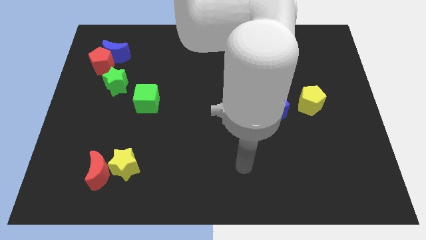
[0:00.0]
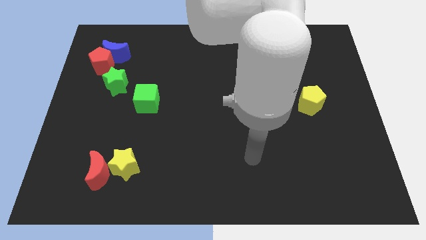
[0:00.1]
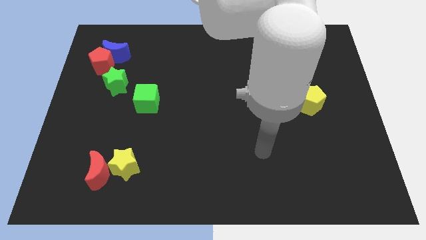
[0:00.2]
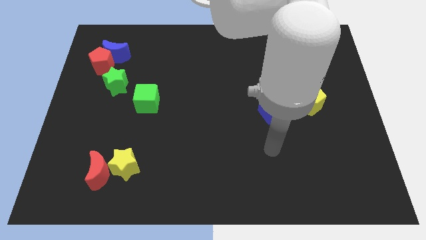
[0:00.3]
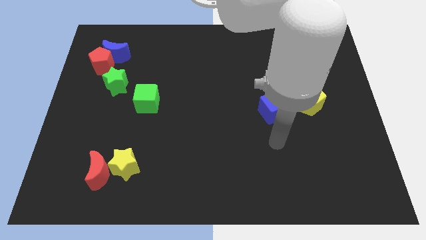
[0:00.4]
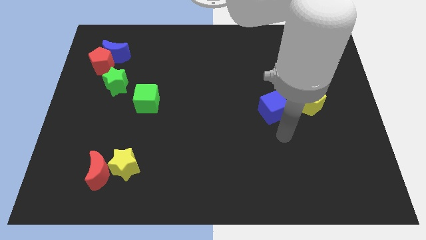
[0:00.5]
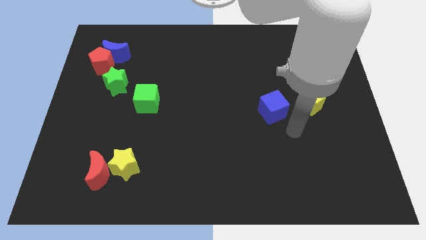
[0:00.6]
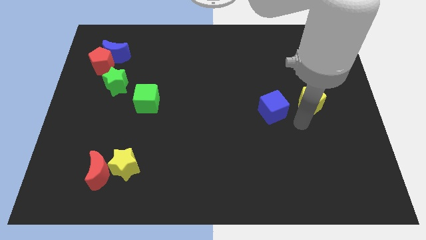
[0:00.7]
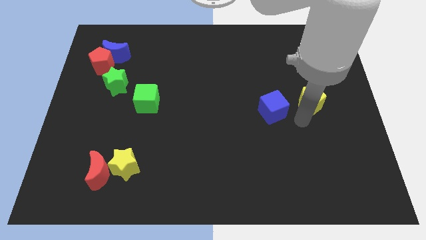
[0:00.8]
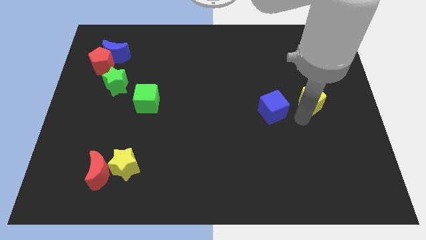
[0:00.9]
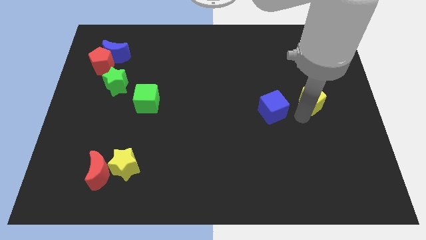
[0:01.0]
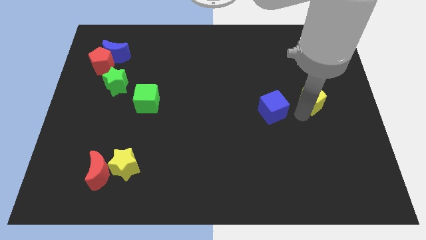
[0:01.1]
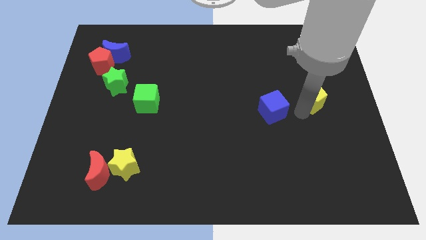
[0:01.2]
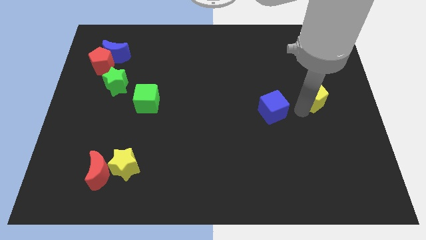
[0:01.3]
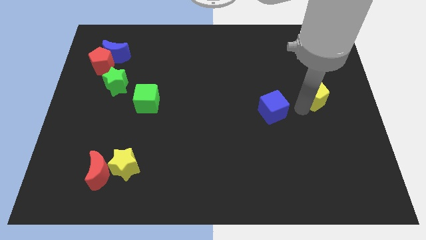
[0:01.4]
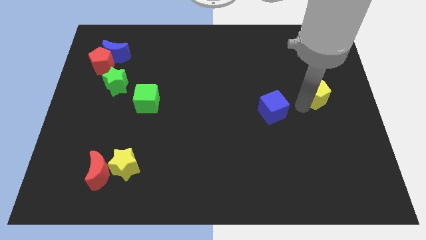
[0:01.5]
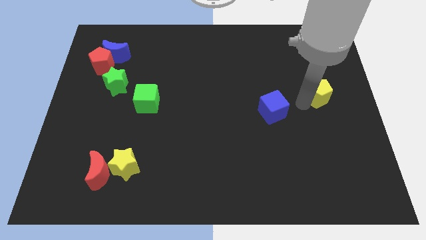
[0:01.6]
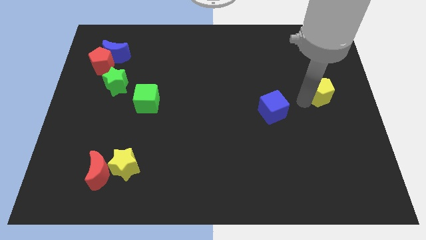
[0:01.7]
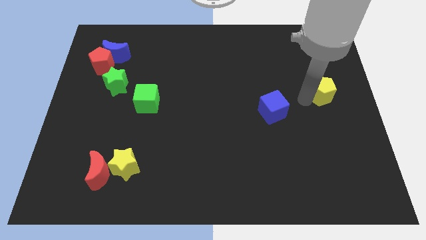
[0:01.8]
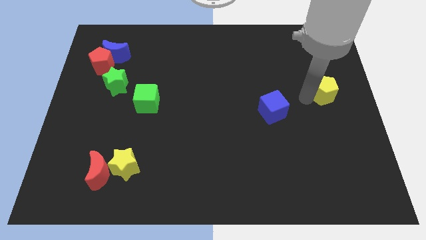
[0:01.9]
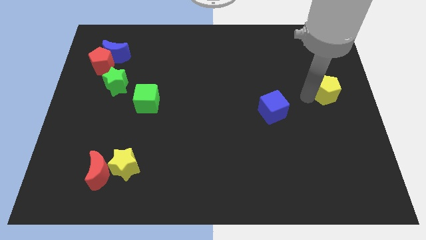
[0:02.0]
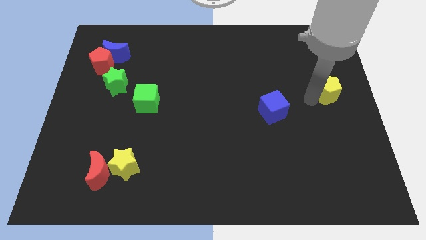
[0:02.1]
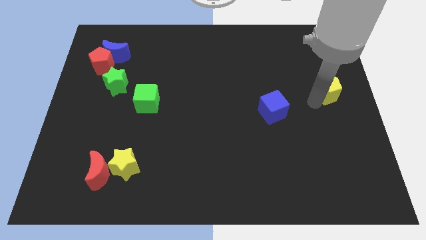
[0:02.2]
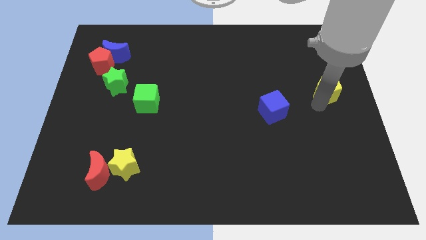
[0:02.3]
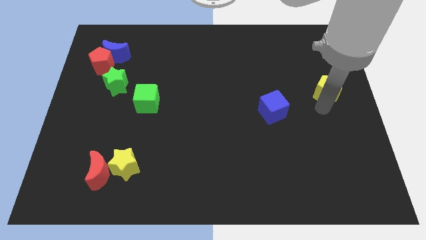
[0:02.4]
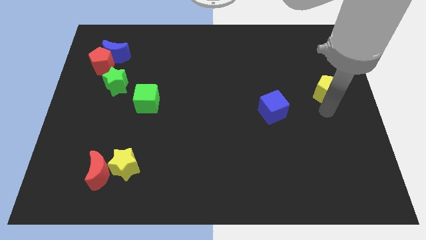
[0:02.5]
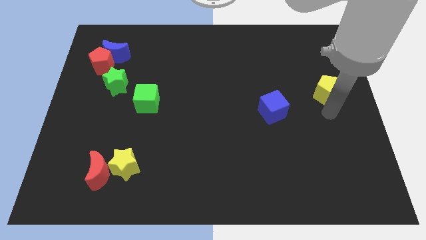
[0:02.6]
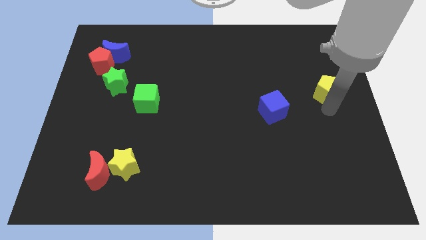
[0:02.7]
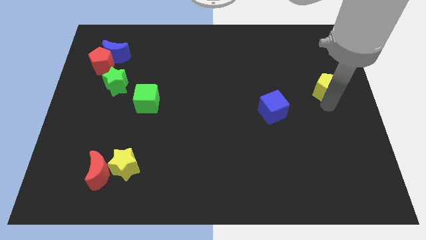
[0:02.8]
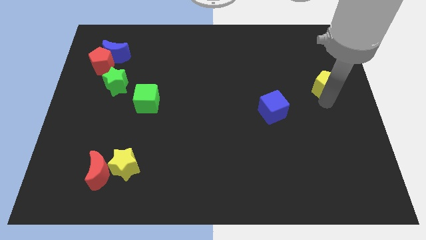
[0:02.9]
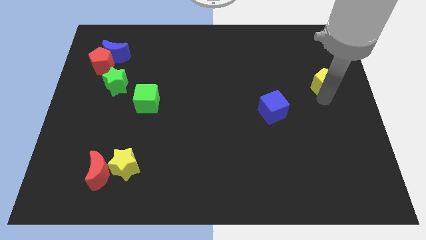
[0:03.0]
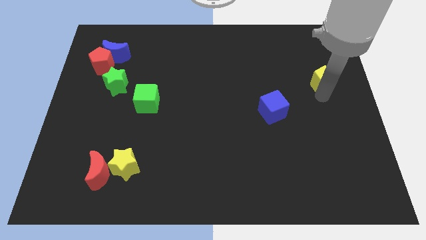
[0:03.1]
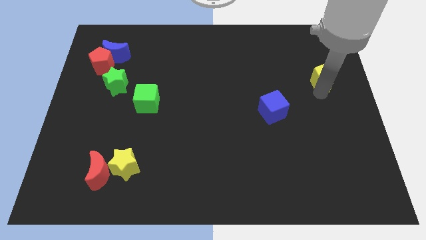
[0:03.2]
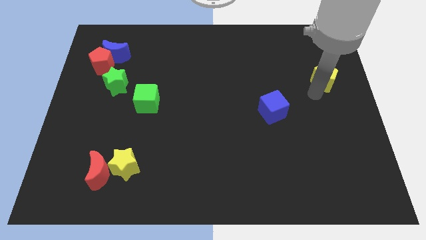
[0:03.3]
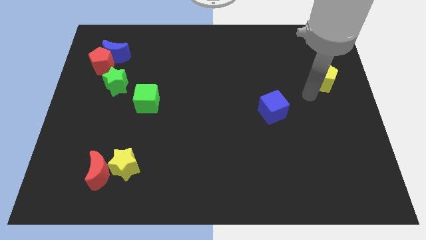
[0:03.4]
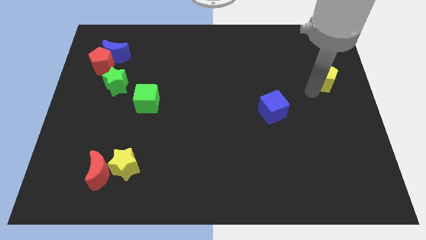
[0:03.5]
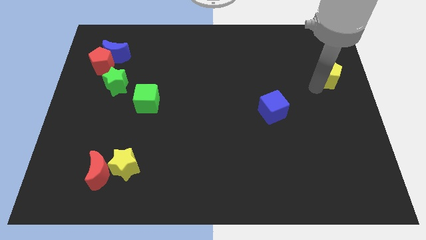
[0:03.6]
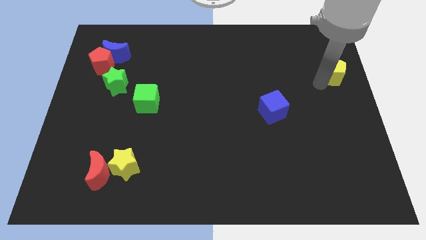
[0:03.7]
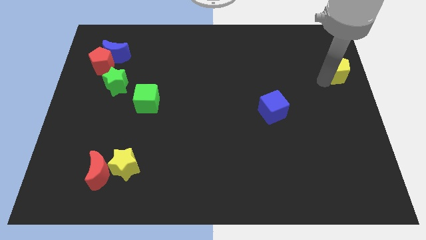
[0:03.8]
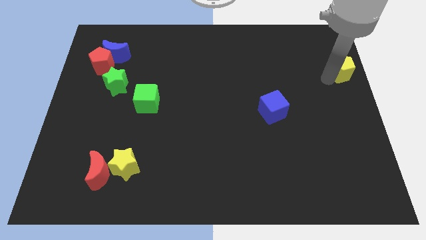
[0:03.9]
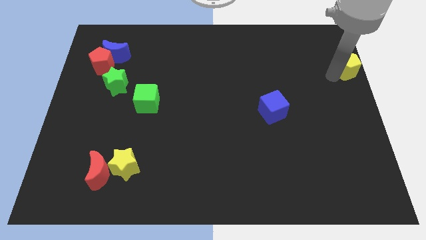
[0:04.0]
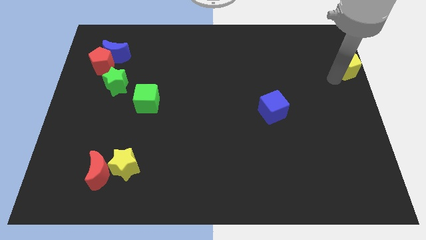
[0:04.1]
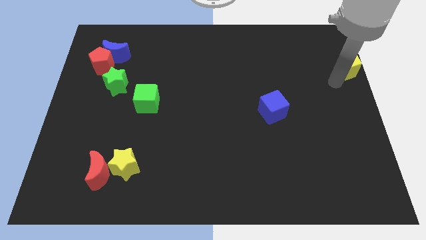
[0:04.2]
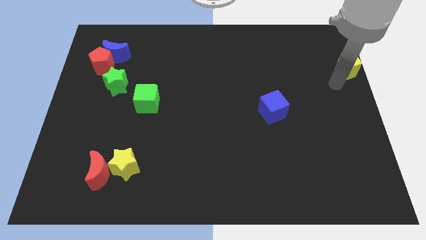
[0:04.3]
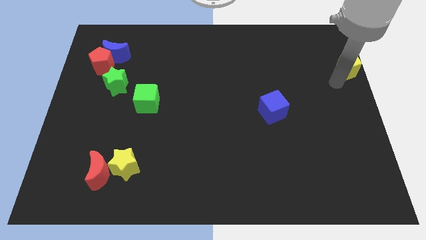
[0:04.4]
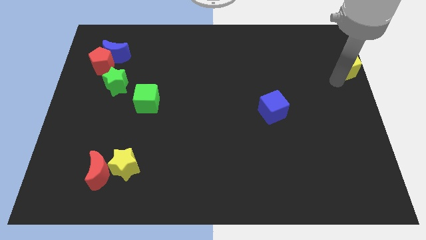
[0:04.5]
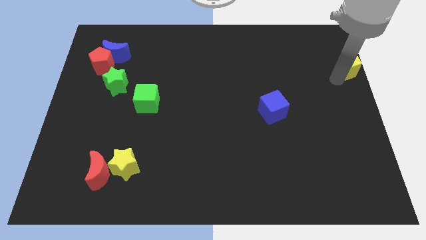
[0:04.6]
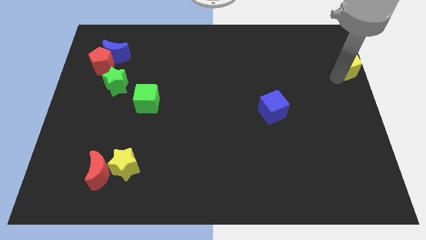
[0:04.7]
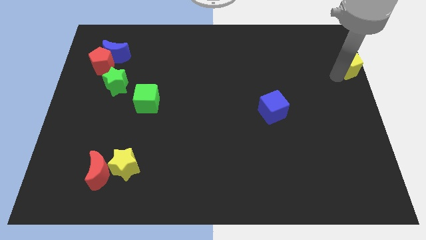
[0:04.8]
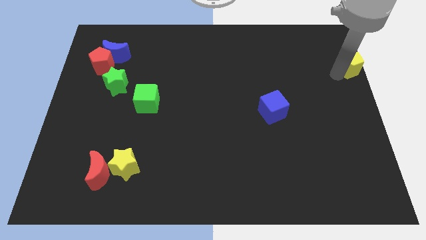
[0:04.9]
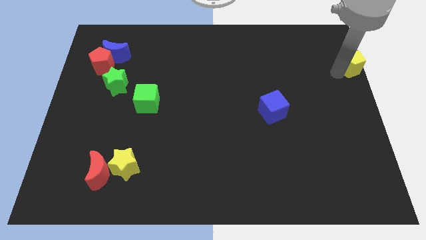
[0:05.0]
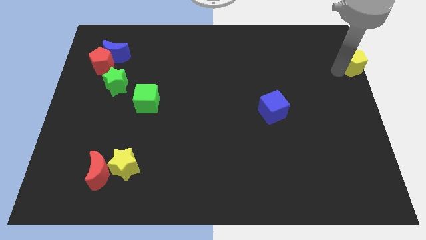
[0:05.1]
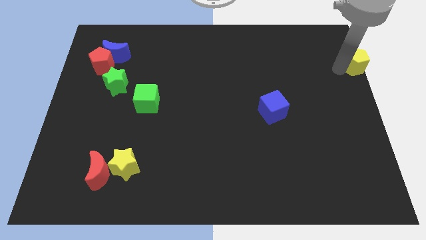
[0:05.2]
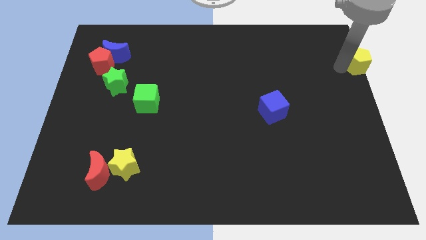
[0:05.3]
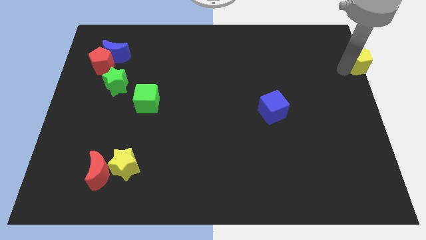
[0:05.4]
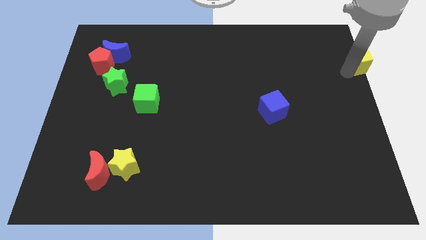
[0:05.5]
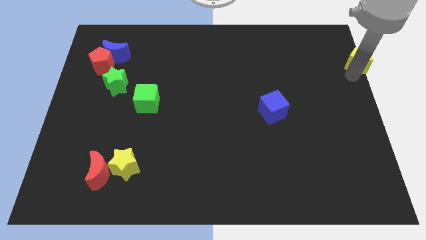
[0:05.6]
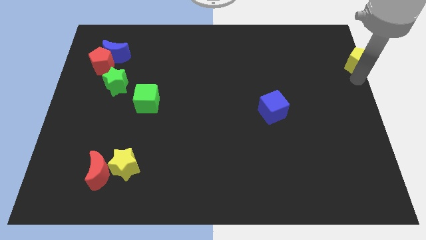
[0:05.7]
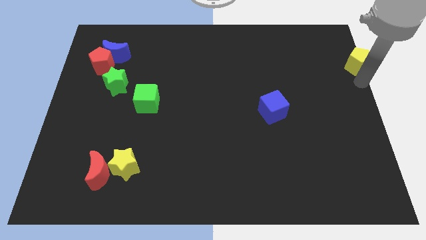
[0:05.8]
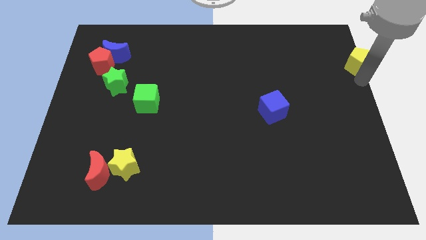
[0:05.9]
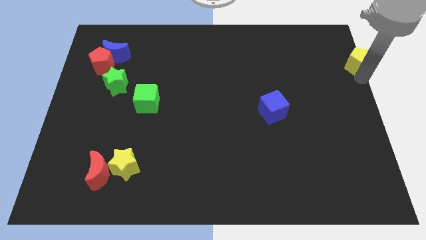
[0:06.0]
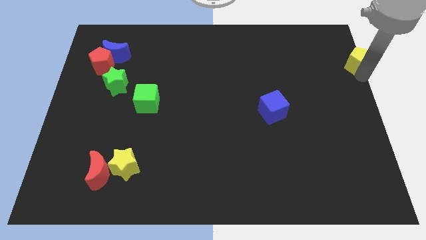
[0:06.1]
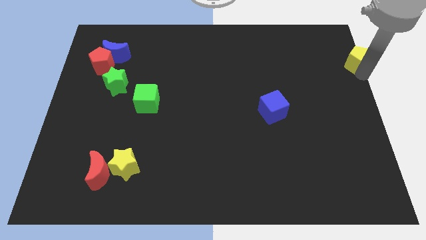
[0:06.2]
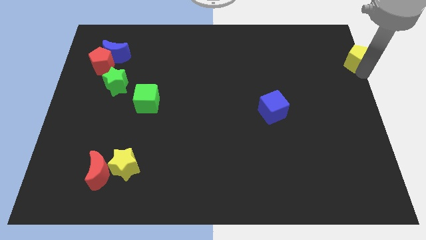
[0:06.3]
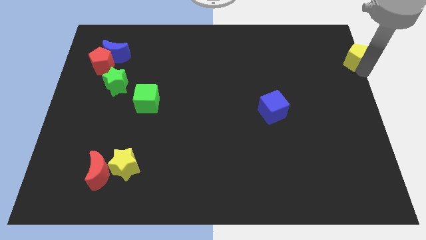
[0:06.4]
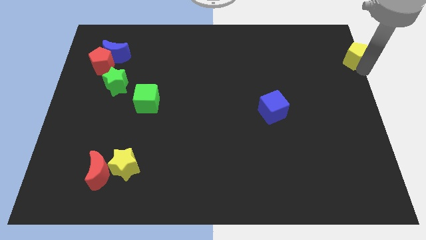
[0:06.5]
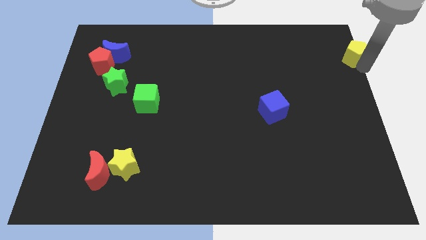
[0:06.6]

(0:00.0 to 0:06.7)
move the yellow pentagon to the top right corner
